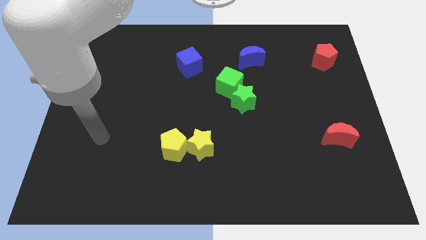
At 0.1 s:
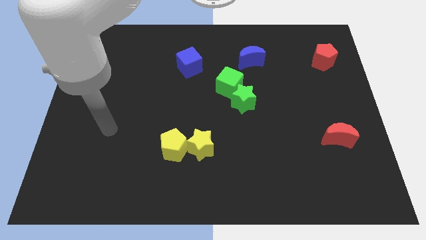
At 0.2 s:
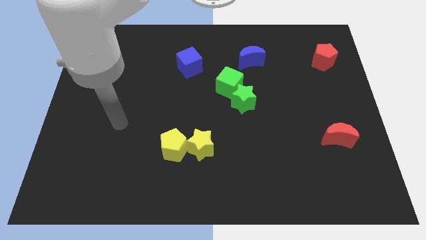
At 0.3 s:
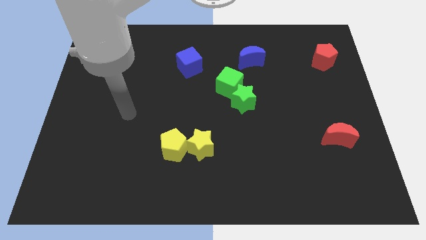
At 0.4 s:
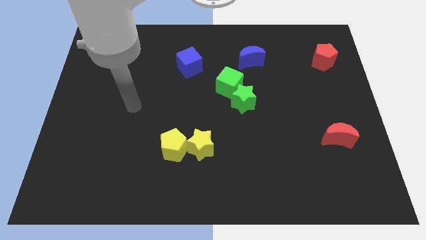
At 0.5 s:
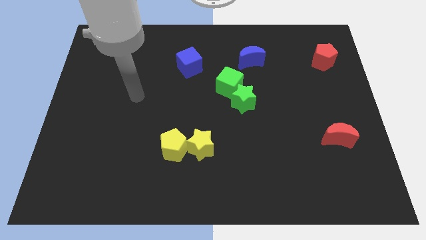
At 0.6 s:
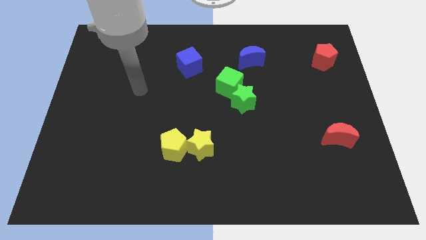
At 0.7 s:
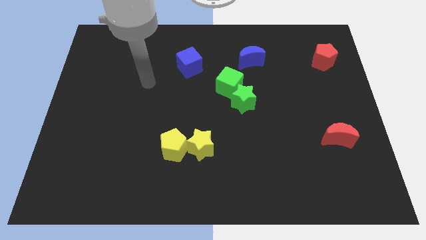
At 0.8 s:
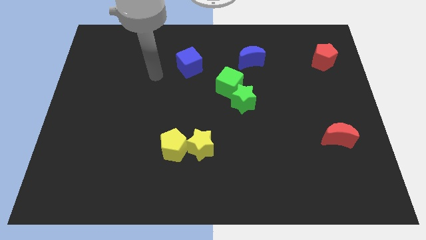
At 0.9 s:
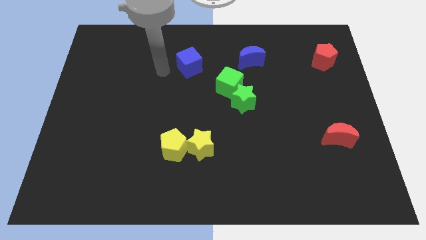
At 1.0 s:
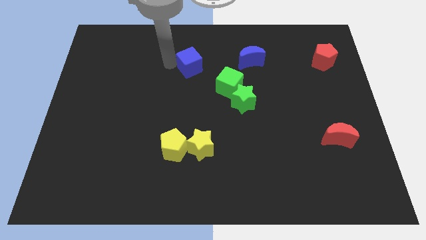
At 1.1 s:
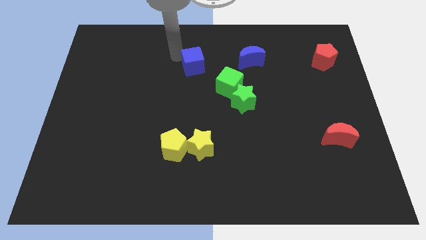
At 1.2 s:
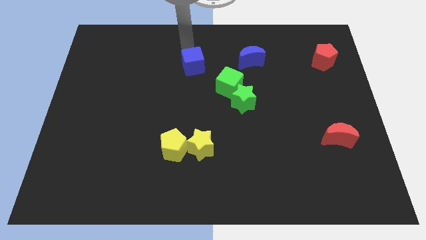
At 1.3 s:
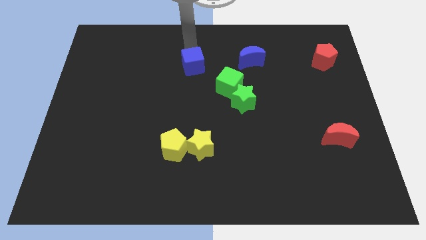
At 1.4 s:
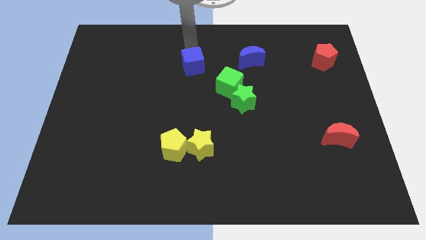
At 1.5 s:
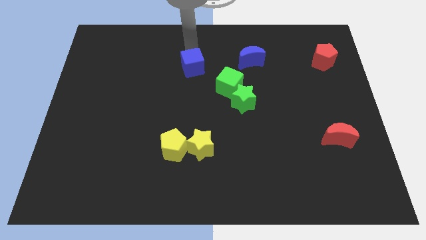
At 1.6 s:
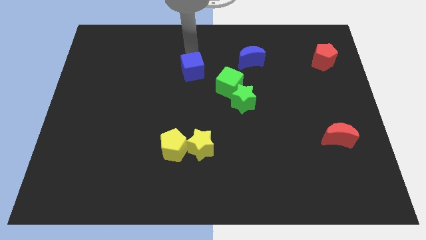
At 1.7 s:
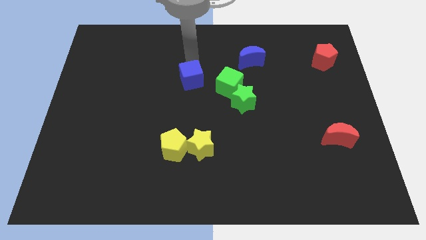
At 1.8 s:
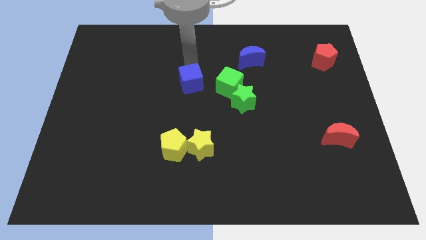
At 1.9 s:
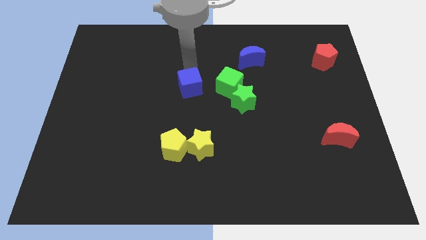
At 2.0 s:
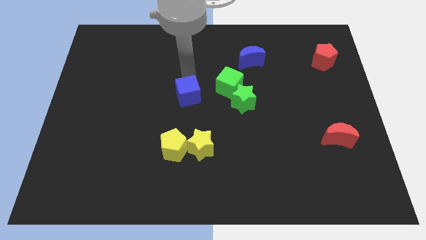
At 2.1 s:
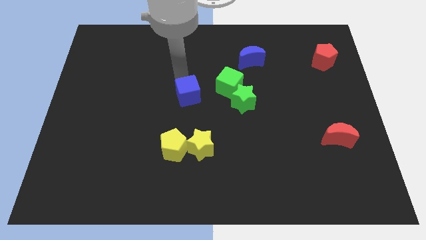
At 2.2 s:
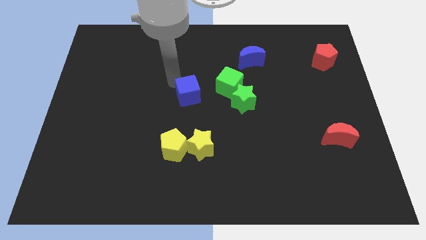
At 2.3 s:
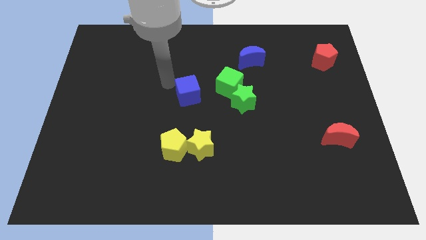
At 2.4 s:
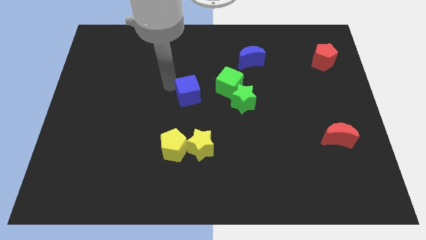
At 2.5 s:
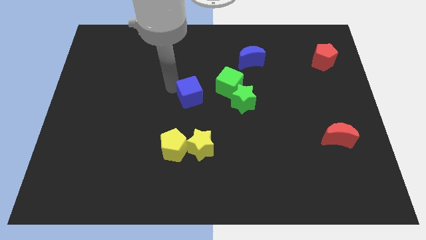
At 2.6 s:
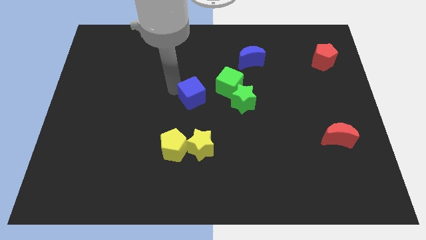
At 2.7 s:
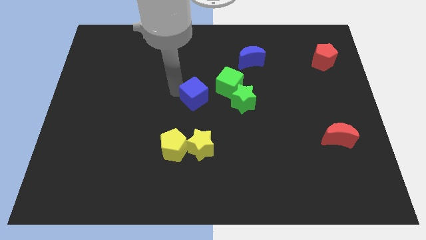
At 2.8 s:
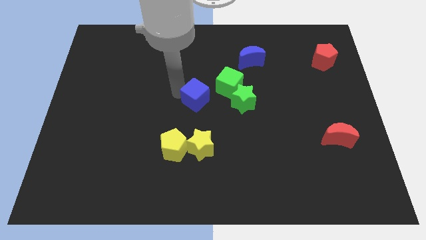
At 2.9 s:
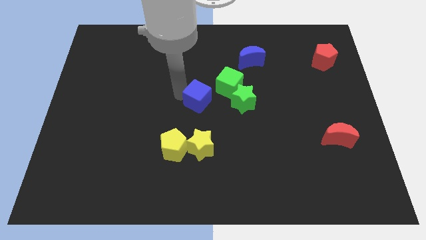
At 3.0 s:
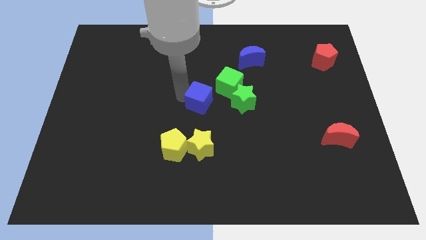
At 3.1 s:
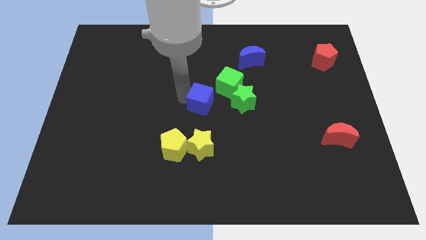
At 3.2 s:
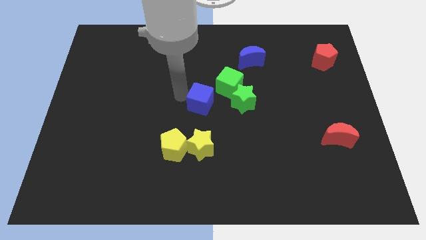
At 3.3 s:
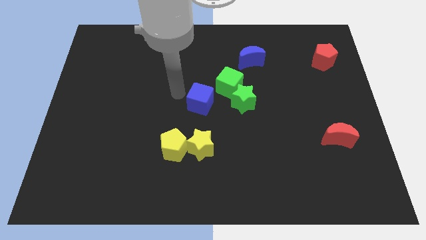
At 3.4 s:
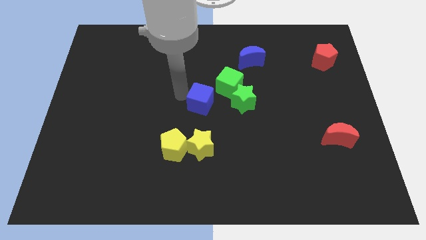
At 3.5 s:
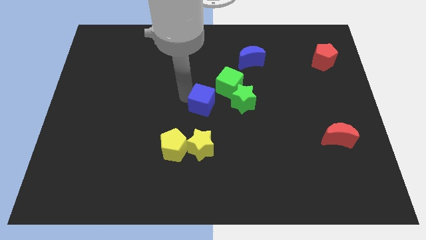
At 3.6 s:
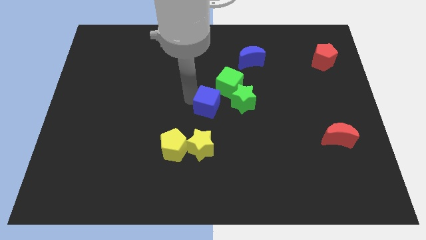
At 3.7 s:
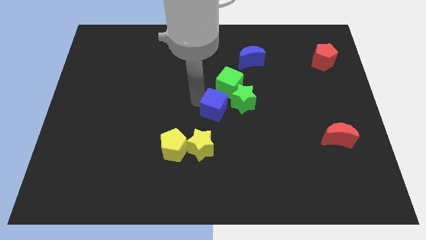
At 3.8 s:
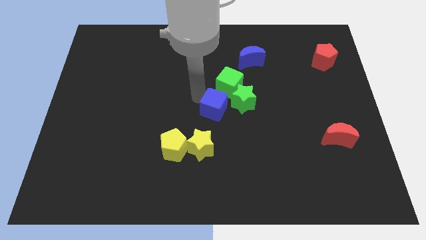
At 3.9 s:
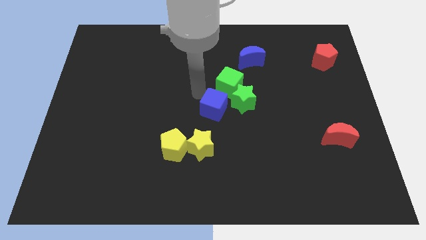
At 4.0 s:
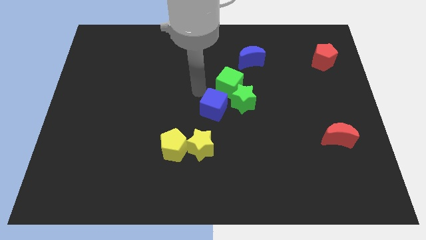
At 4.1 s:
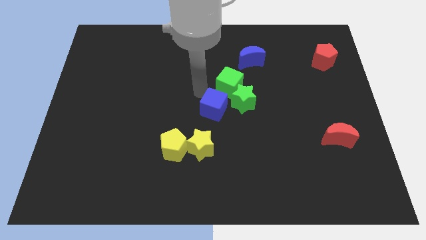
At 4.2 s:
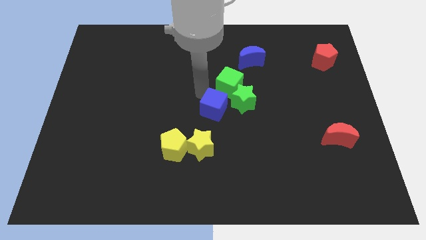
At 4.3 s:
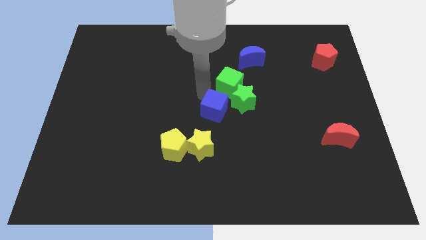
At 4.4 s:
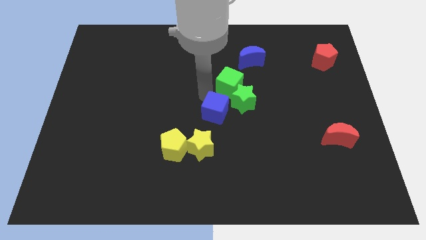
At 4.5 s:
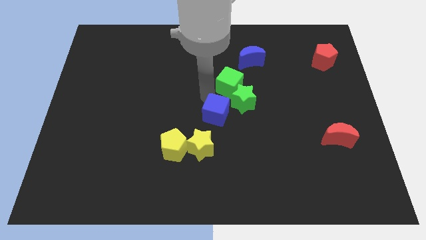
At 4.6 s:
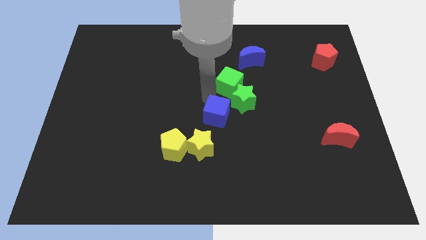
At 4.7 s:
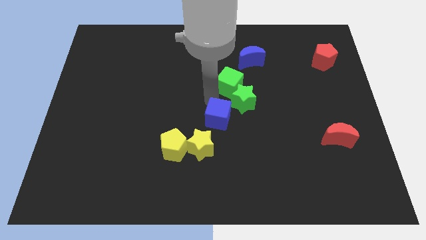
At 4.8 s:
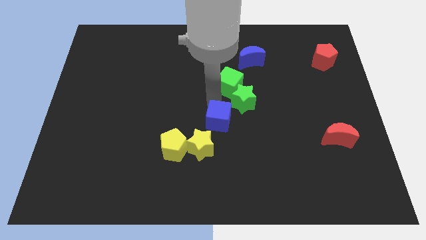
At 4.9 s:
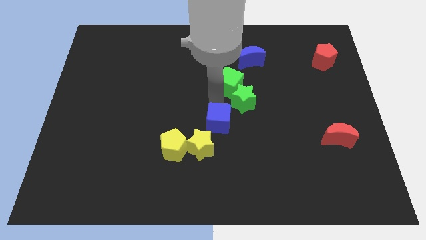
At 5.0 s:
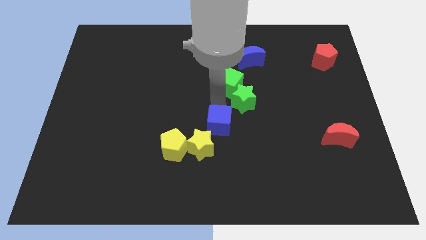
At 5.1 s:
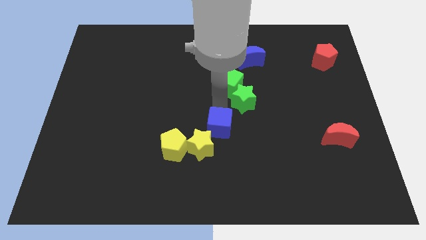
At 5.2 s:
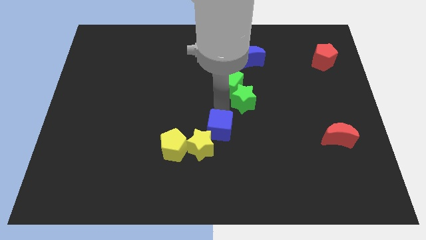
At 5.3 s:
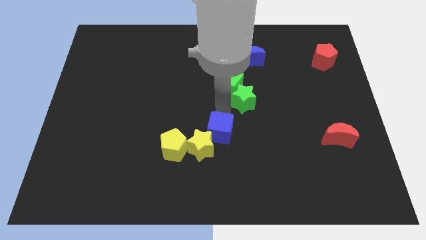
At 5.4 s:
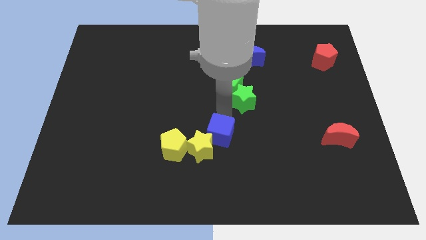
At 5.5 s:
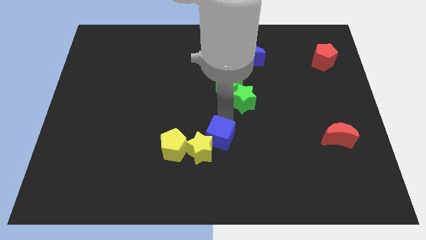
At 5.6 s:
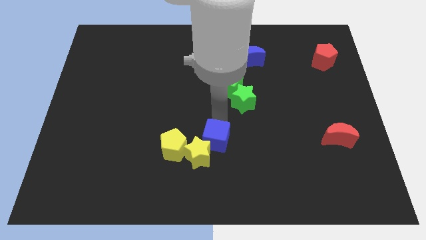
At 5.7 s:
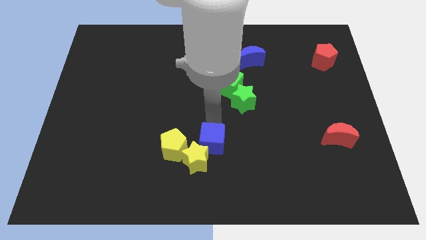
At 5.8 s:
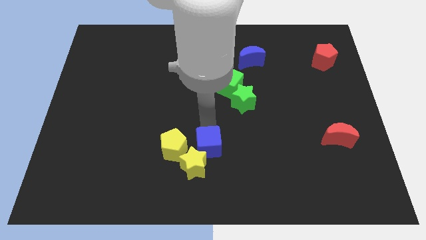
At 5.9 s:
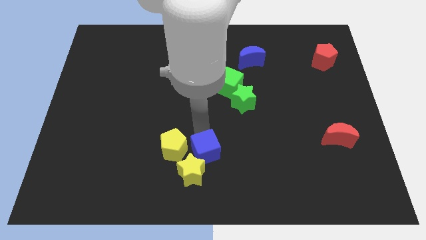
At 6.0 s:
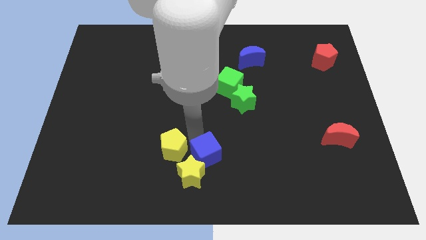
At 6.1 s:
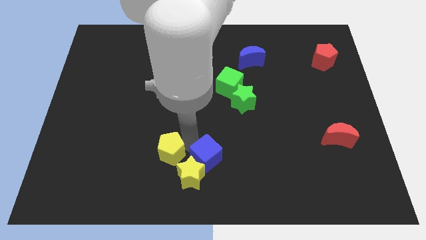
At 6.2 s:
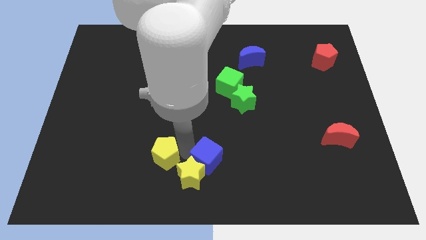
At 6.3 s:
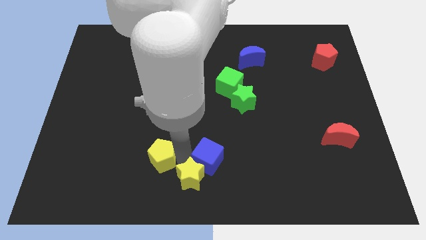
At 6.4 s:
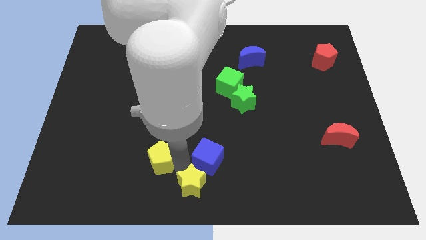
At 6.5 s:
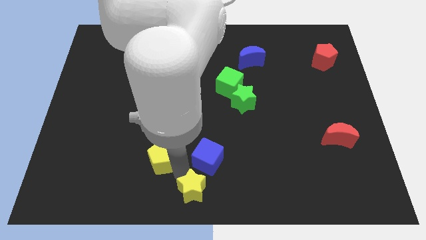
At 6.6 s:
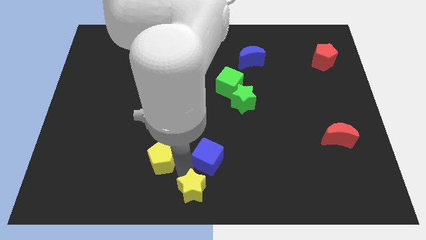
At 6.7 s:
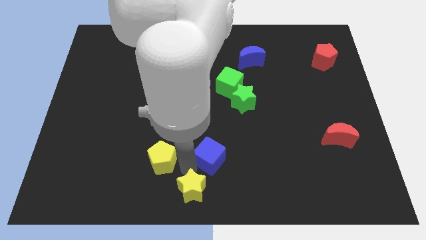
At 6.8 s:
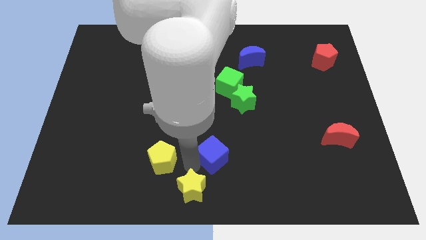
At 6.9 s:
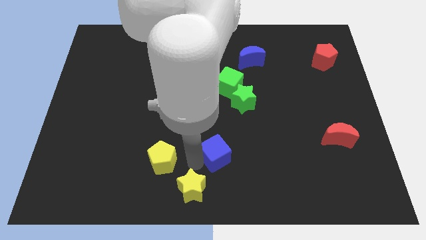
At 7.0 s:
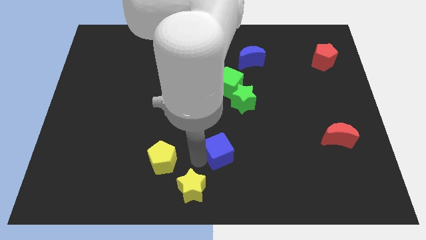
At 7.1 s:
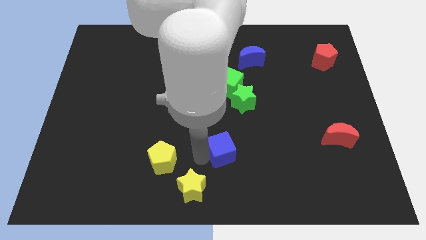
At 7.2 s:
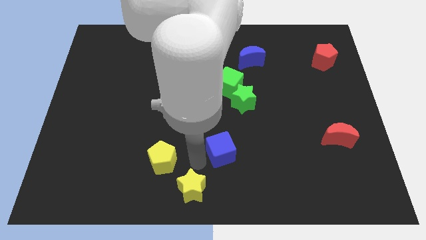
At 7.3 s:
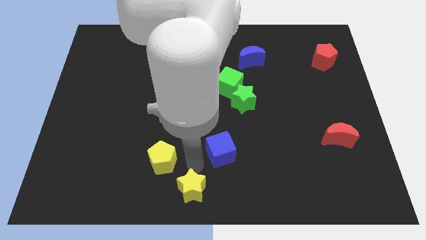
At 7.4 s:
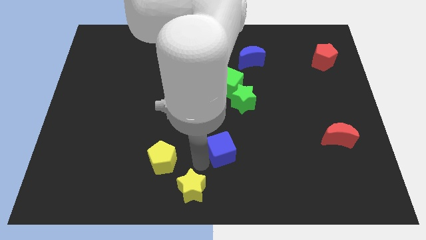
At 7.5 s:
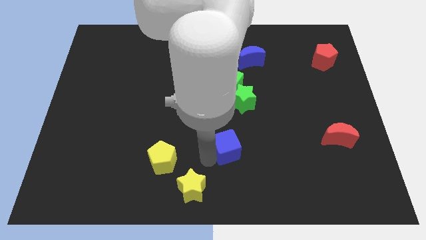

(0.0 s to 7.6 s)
slide the blue cube to the bottom of the green star
